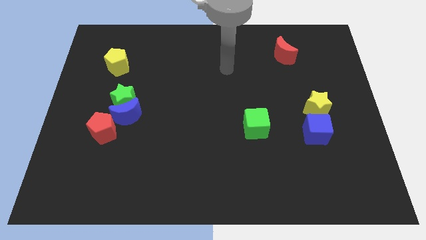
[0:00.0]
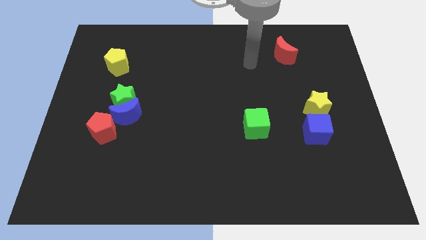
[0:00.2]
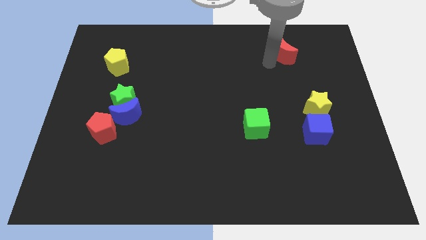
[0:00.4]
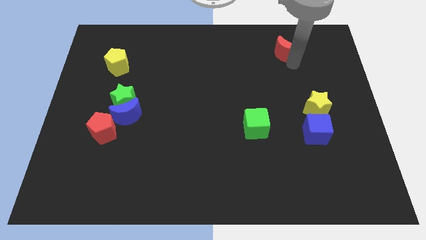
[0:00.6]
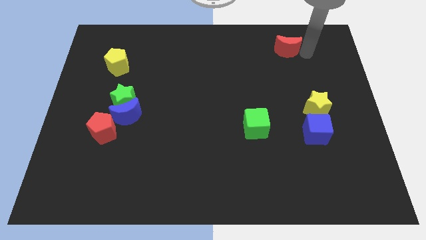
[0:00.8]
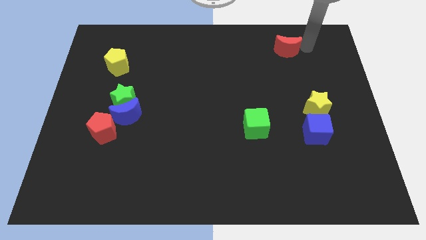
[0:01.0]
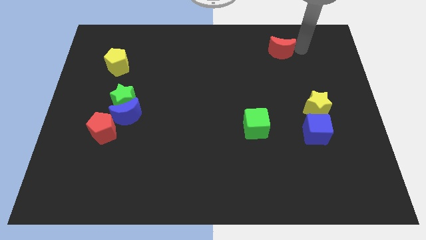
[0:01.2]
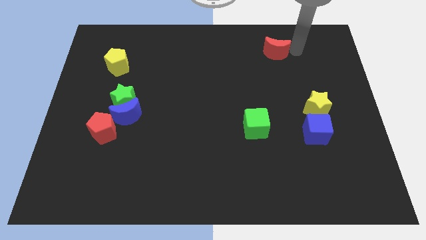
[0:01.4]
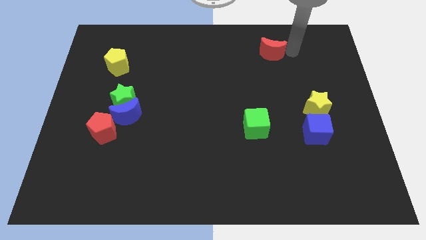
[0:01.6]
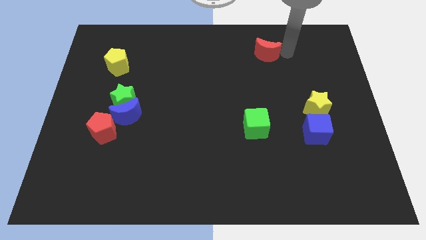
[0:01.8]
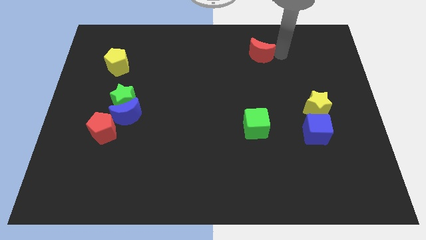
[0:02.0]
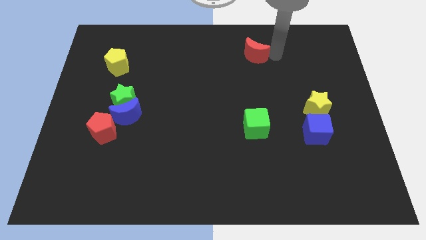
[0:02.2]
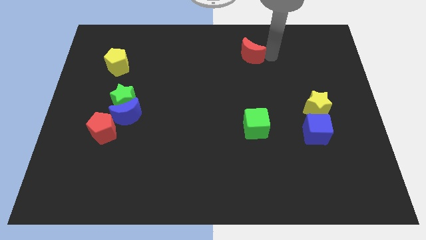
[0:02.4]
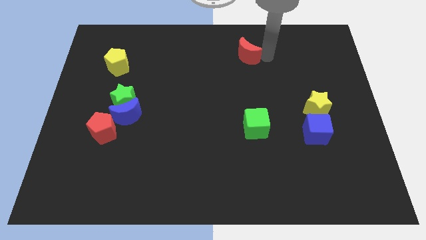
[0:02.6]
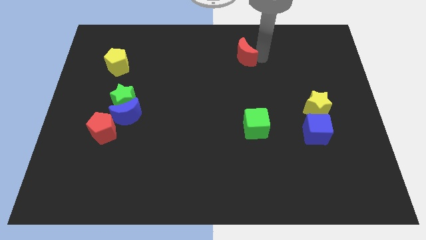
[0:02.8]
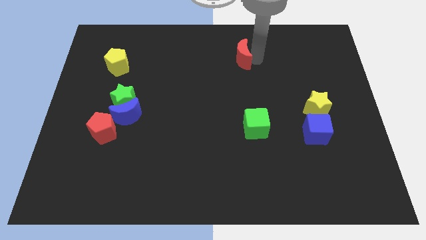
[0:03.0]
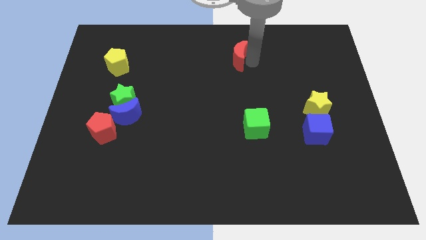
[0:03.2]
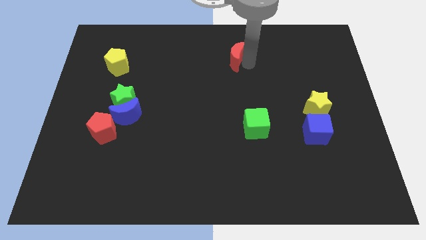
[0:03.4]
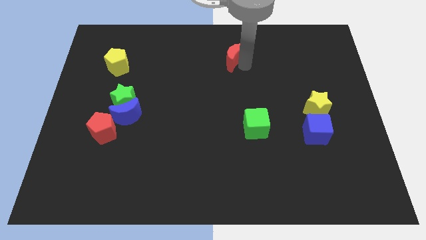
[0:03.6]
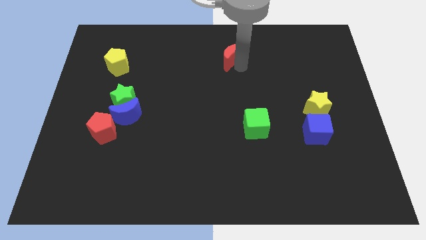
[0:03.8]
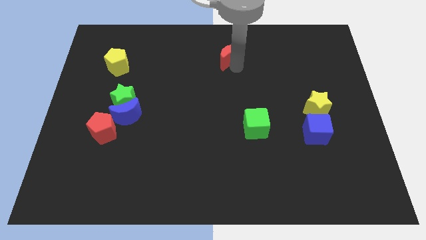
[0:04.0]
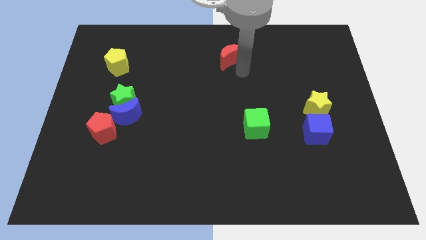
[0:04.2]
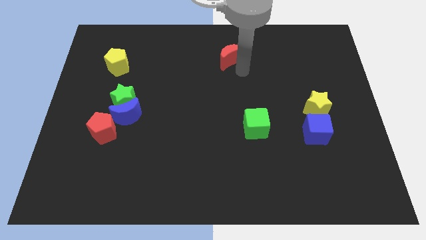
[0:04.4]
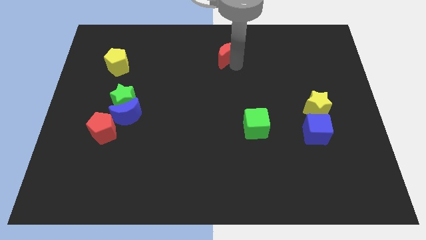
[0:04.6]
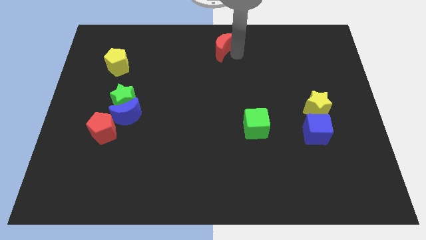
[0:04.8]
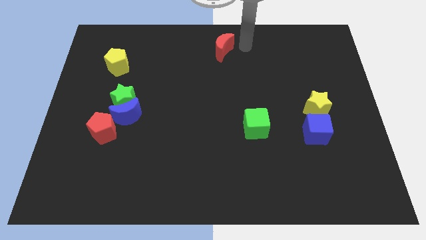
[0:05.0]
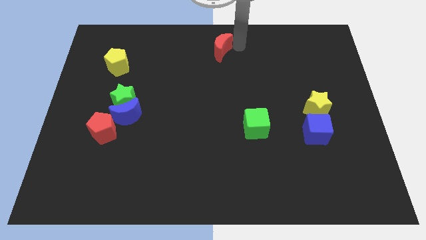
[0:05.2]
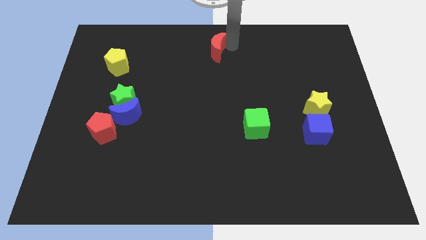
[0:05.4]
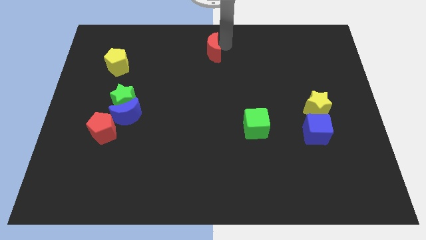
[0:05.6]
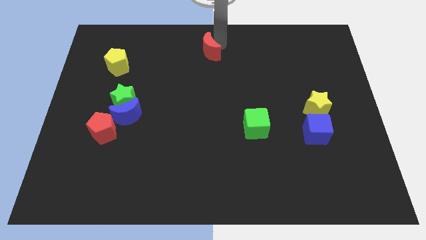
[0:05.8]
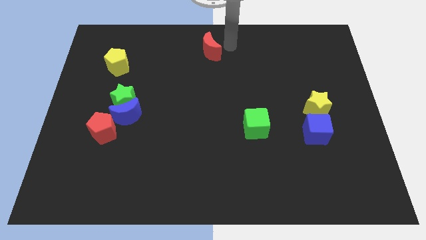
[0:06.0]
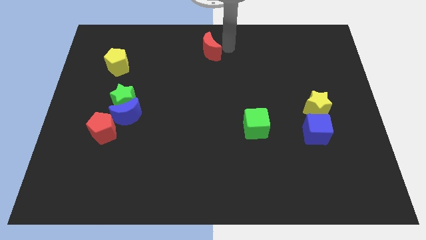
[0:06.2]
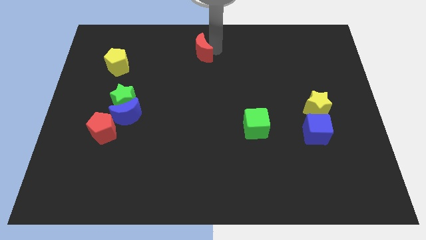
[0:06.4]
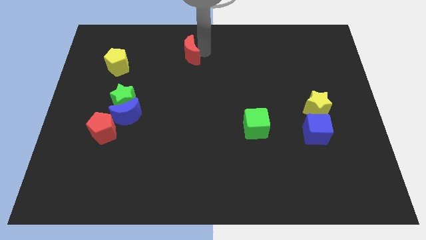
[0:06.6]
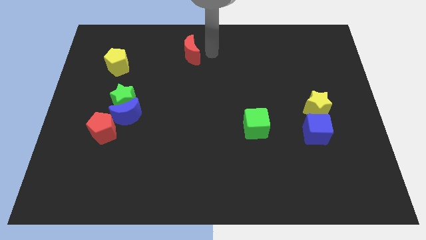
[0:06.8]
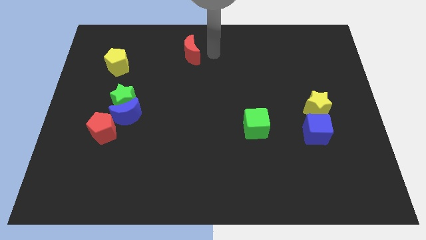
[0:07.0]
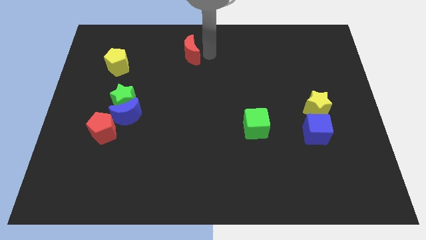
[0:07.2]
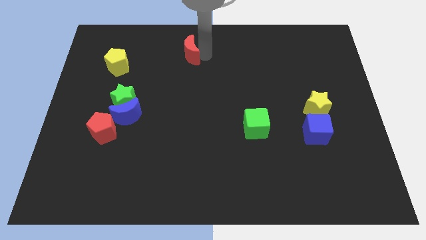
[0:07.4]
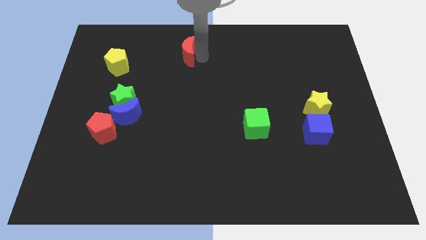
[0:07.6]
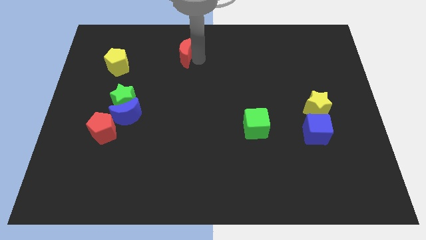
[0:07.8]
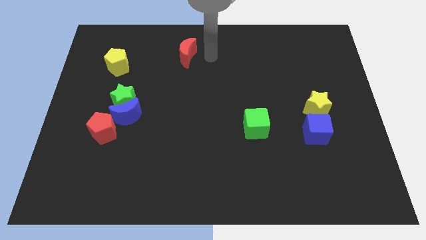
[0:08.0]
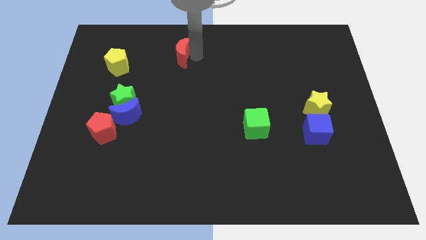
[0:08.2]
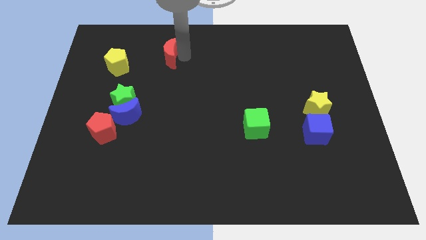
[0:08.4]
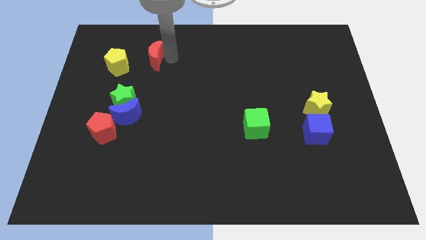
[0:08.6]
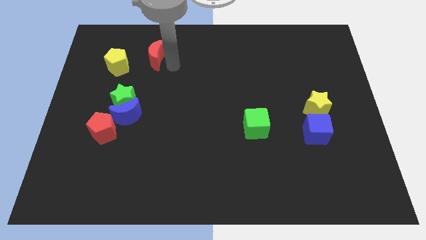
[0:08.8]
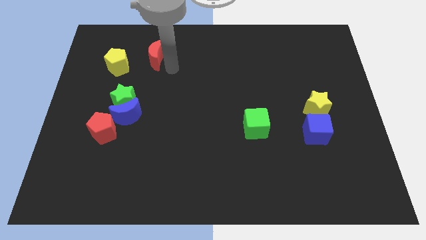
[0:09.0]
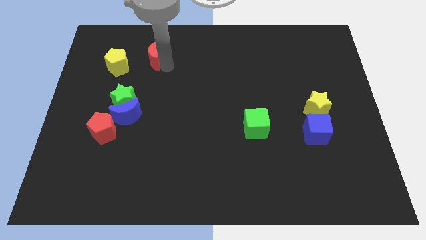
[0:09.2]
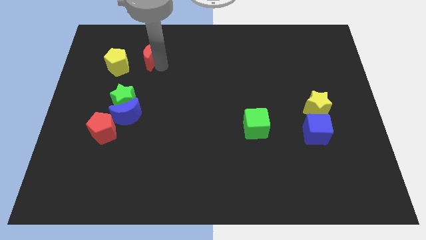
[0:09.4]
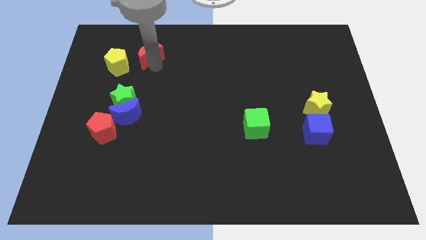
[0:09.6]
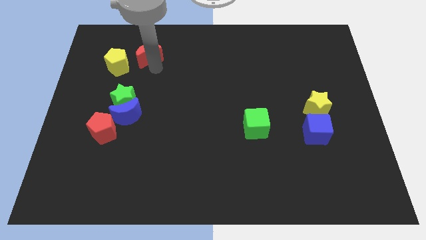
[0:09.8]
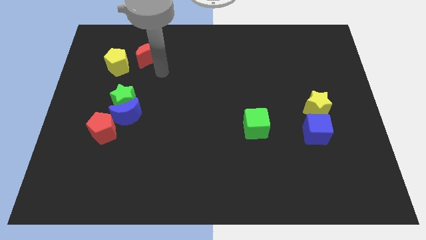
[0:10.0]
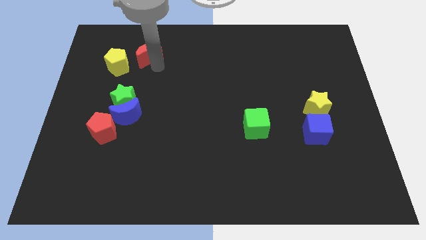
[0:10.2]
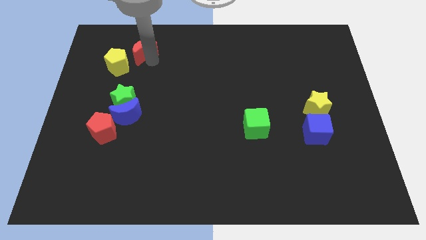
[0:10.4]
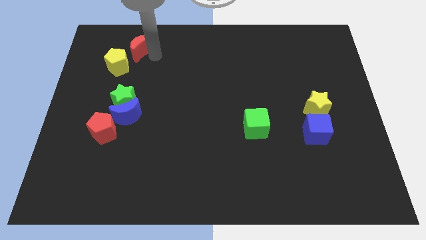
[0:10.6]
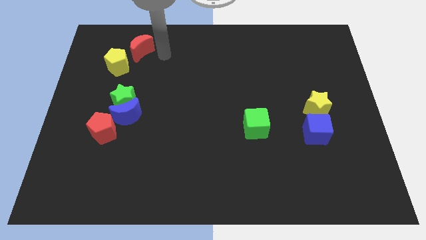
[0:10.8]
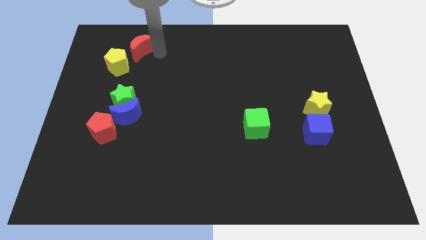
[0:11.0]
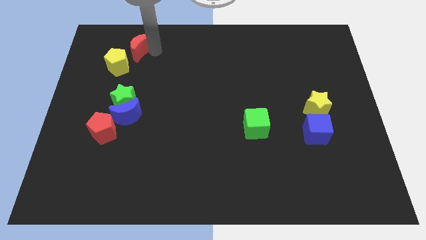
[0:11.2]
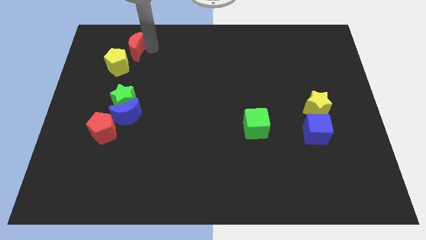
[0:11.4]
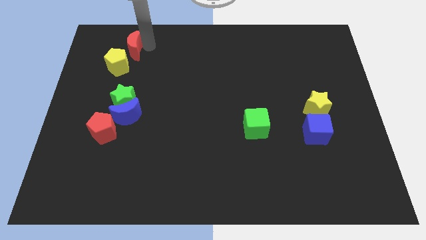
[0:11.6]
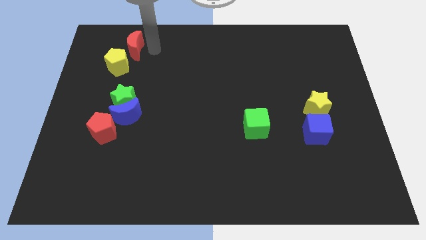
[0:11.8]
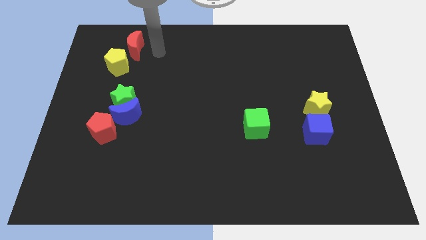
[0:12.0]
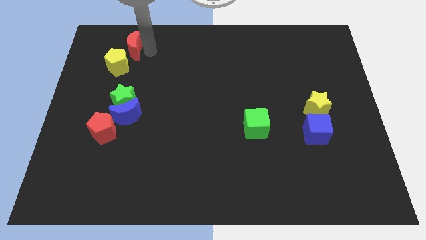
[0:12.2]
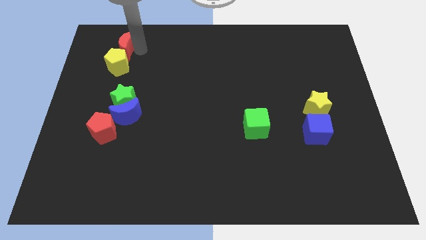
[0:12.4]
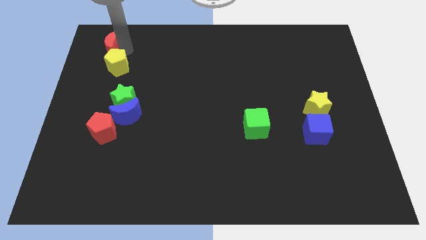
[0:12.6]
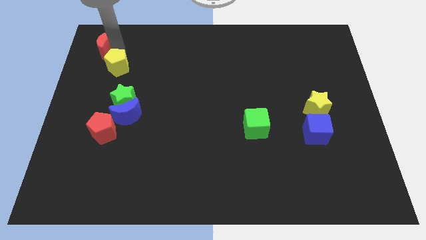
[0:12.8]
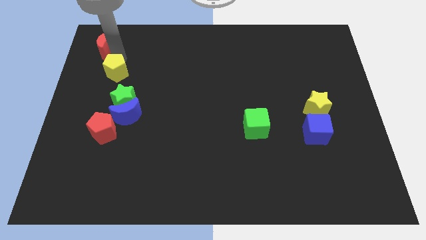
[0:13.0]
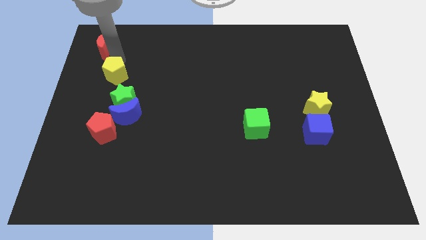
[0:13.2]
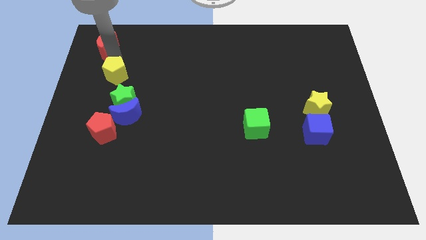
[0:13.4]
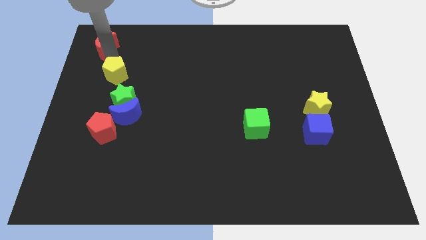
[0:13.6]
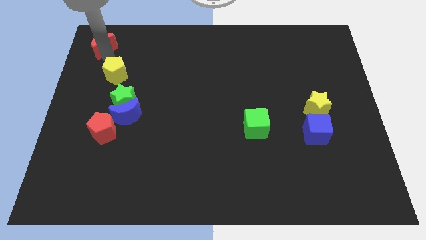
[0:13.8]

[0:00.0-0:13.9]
put the red moon to the top left

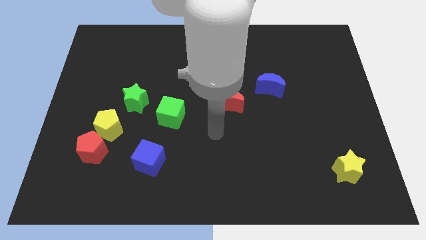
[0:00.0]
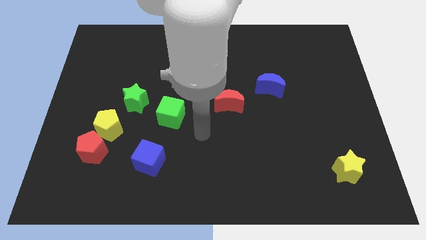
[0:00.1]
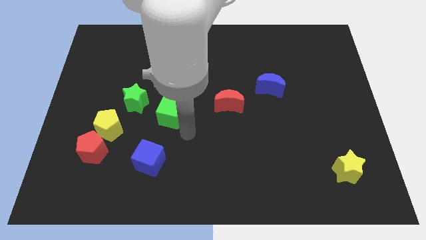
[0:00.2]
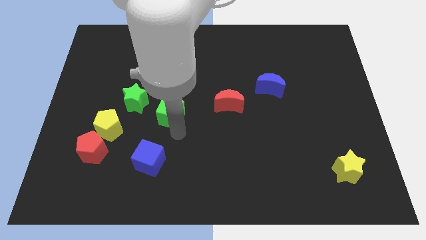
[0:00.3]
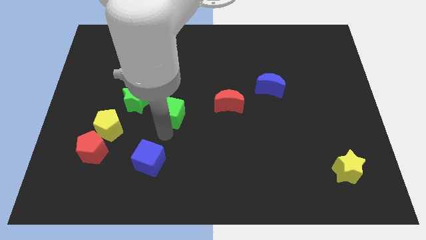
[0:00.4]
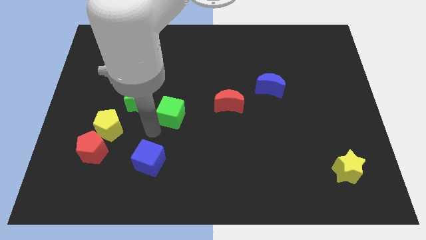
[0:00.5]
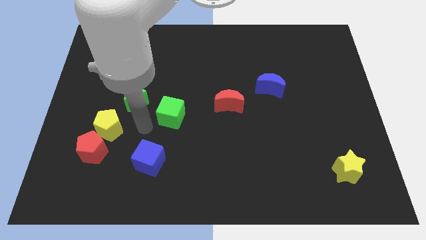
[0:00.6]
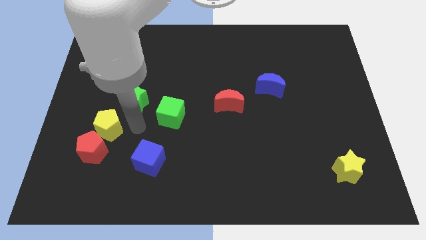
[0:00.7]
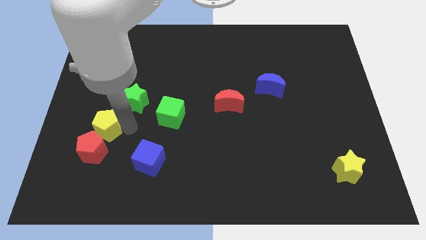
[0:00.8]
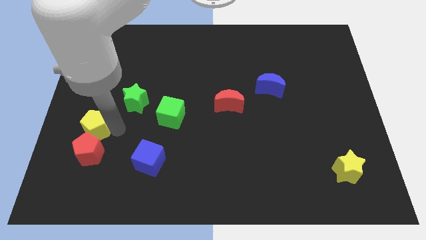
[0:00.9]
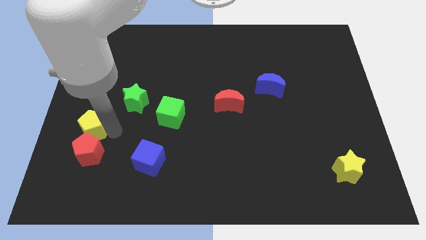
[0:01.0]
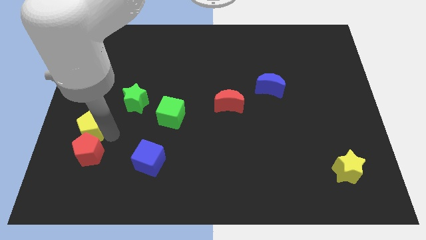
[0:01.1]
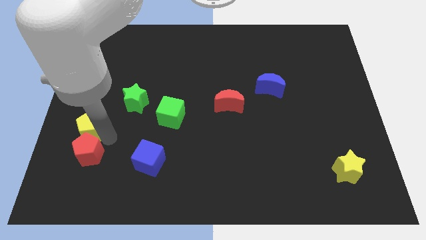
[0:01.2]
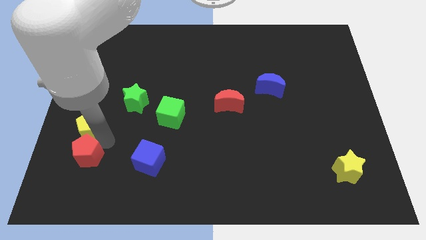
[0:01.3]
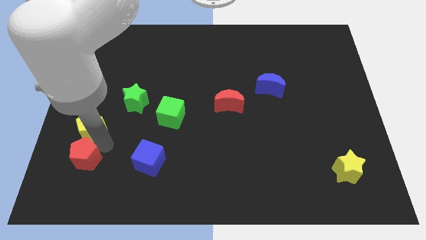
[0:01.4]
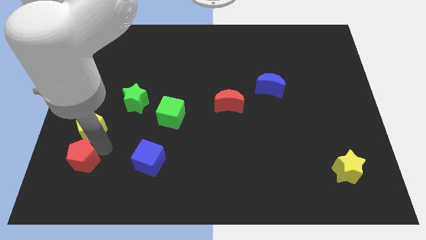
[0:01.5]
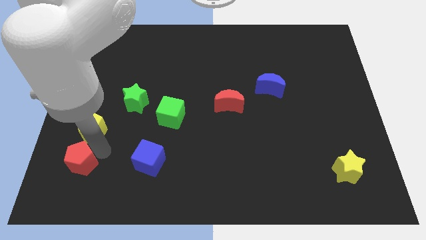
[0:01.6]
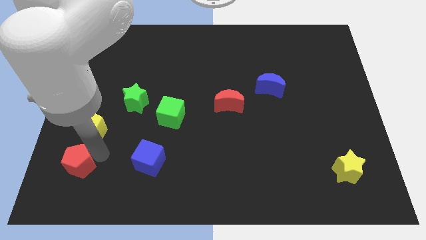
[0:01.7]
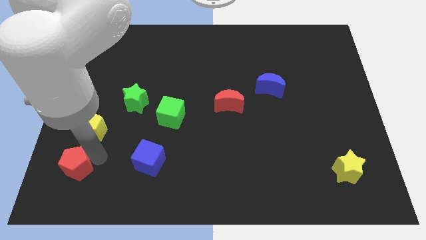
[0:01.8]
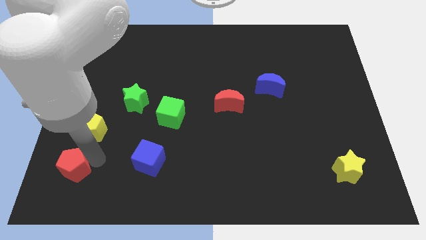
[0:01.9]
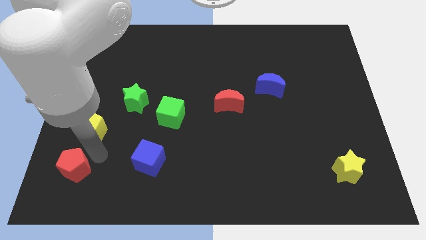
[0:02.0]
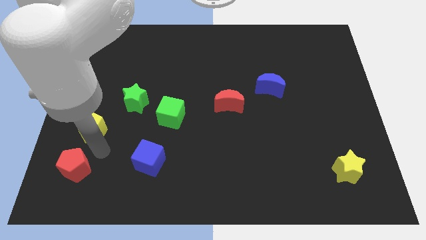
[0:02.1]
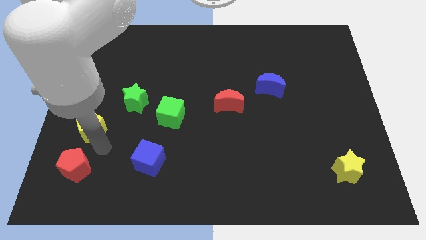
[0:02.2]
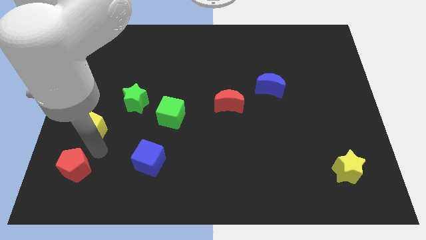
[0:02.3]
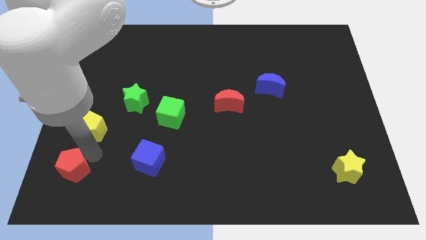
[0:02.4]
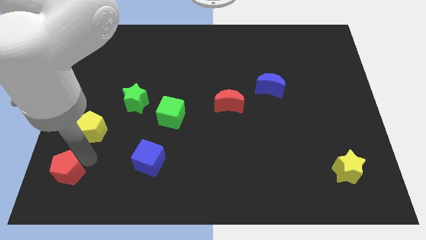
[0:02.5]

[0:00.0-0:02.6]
slide the red pentagon to the lower left corner
